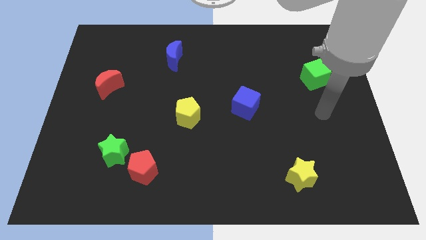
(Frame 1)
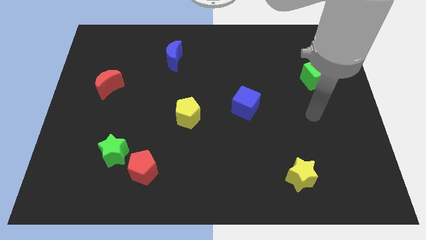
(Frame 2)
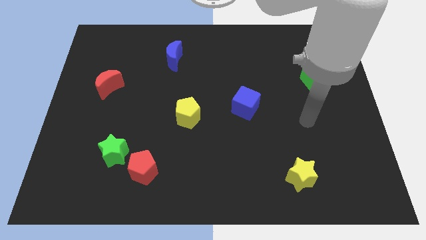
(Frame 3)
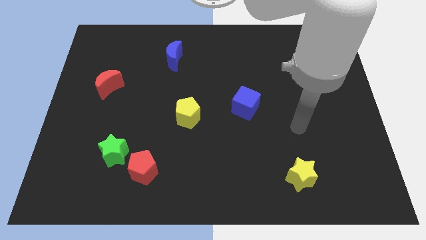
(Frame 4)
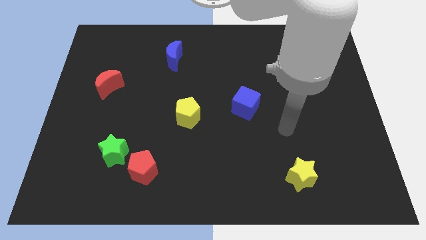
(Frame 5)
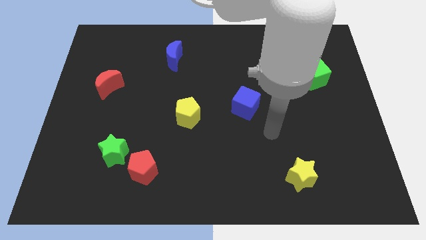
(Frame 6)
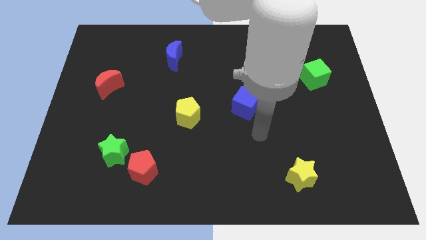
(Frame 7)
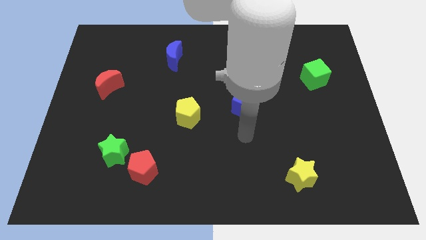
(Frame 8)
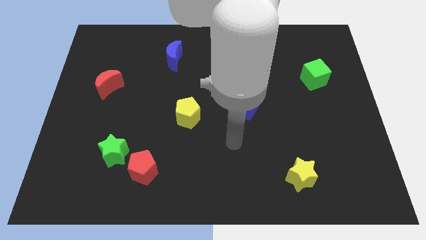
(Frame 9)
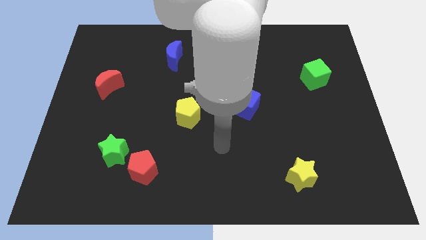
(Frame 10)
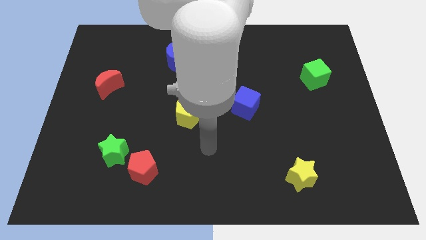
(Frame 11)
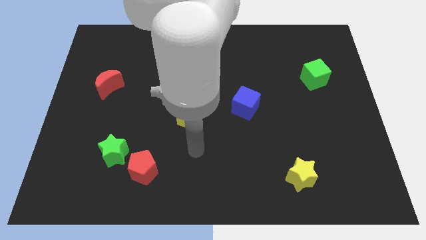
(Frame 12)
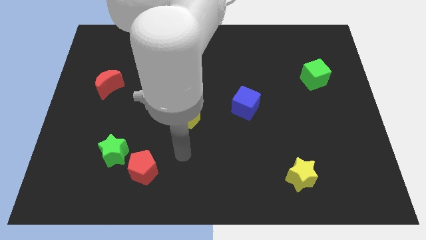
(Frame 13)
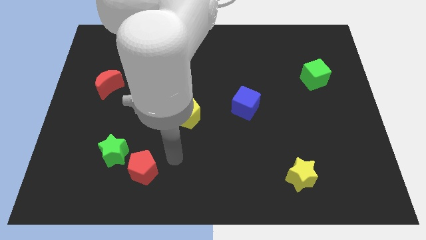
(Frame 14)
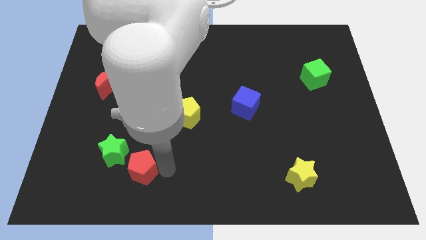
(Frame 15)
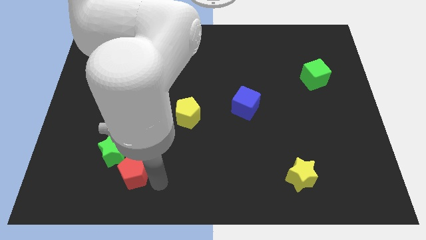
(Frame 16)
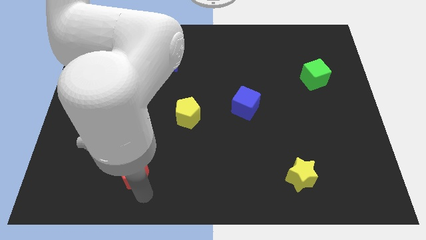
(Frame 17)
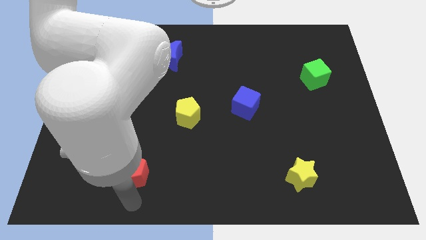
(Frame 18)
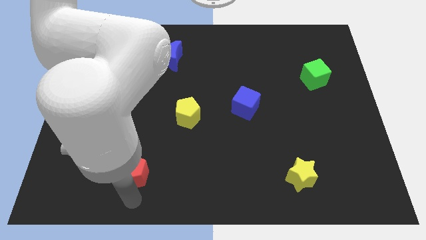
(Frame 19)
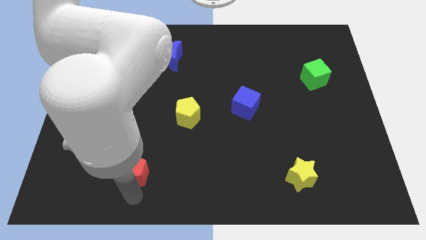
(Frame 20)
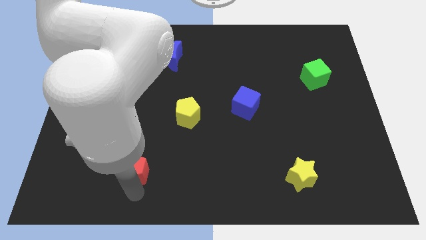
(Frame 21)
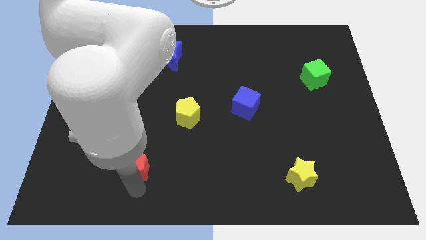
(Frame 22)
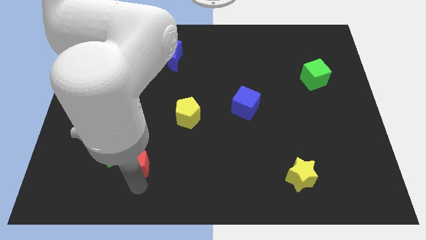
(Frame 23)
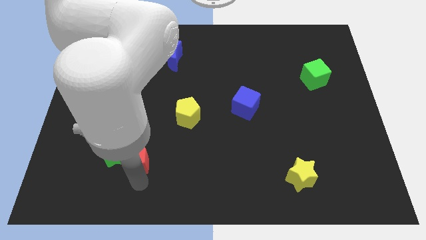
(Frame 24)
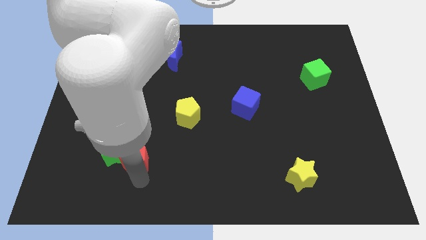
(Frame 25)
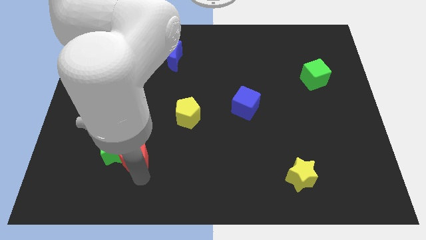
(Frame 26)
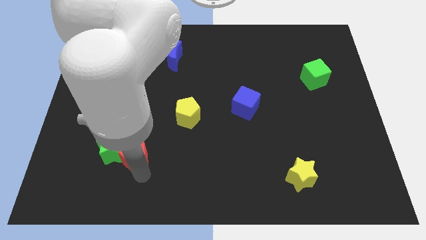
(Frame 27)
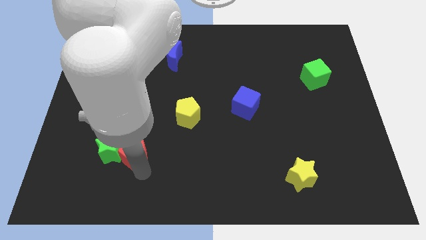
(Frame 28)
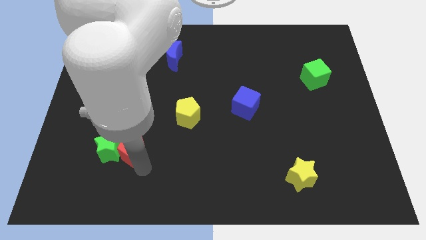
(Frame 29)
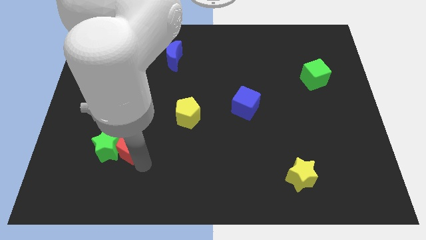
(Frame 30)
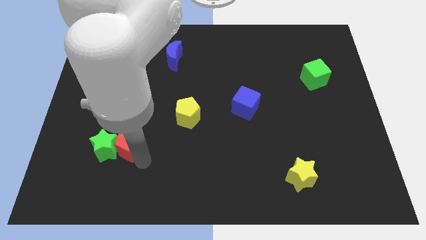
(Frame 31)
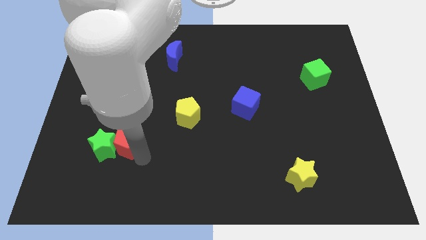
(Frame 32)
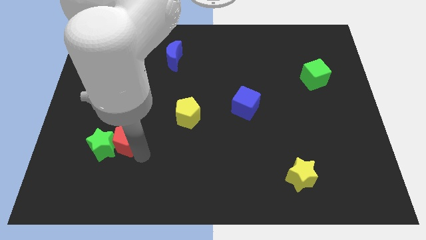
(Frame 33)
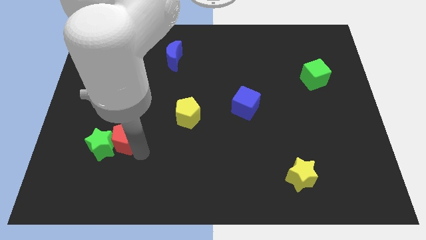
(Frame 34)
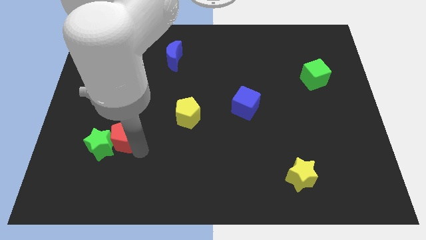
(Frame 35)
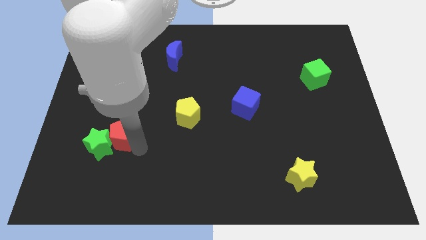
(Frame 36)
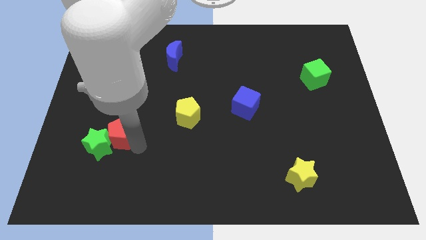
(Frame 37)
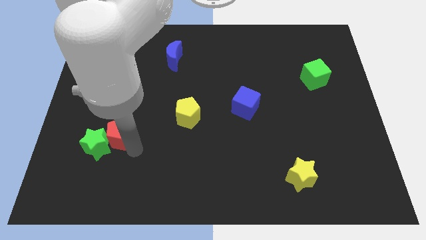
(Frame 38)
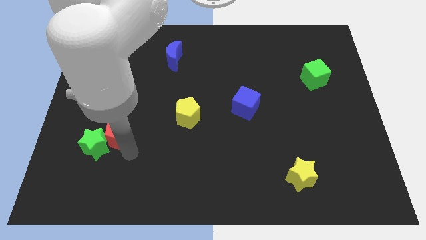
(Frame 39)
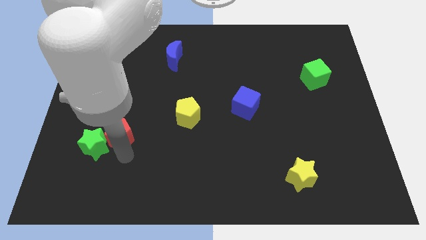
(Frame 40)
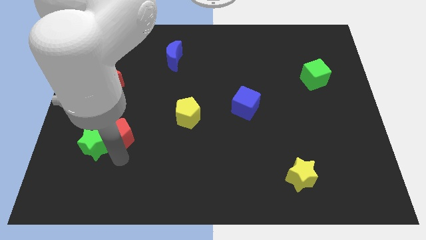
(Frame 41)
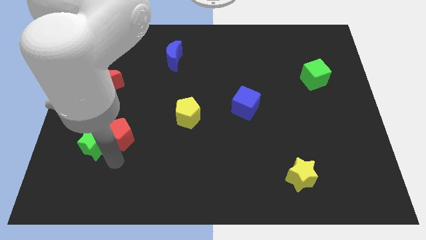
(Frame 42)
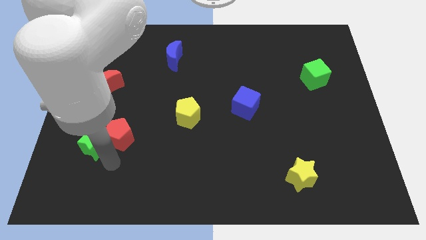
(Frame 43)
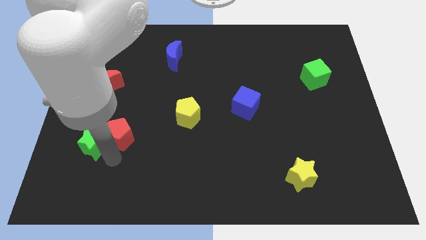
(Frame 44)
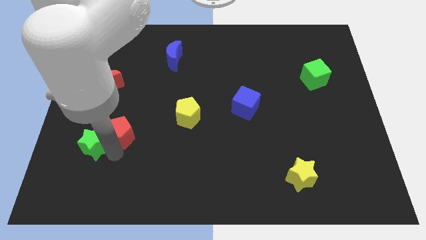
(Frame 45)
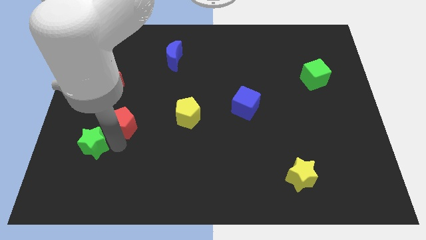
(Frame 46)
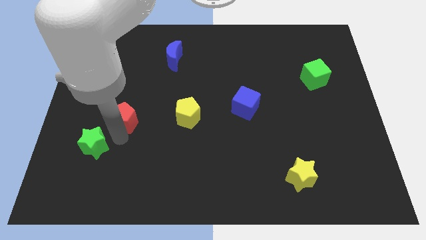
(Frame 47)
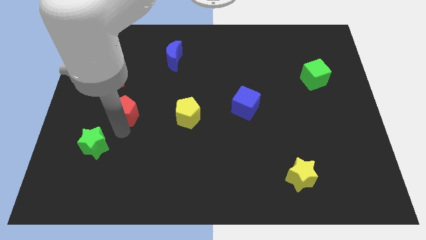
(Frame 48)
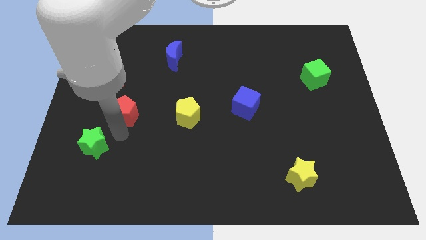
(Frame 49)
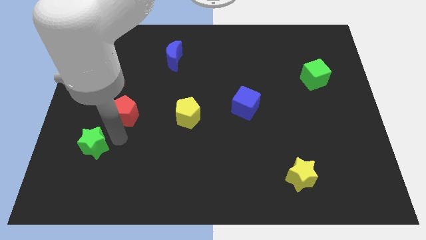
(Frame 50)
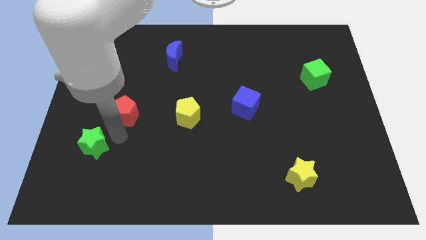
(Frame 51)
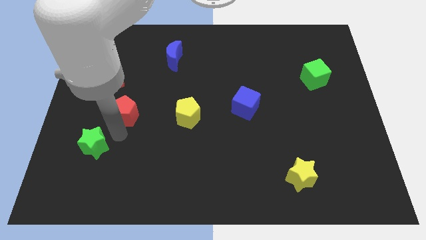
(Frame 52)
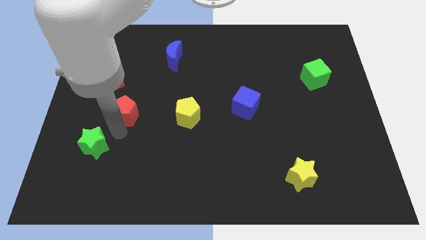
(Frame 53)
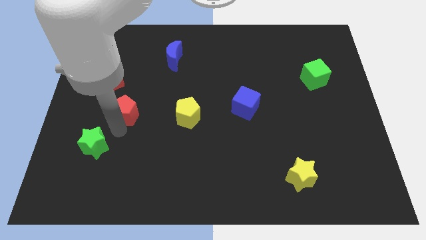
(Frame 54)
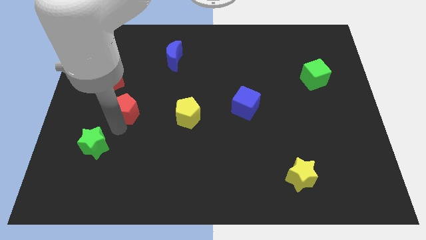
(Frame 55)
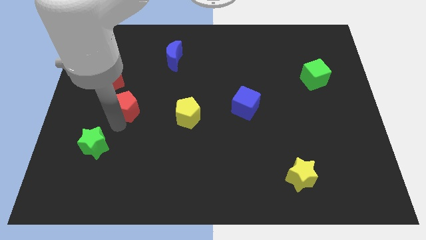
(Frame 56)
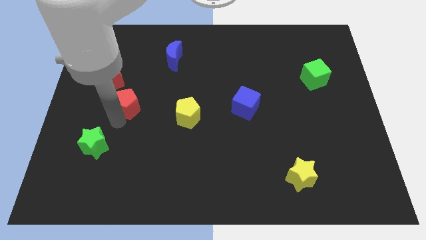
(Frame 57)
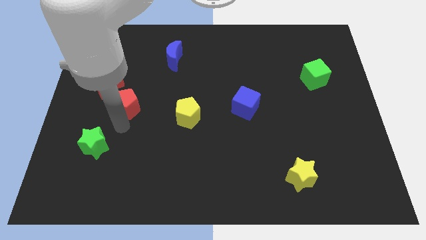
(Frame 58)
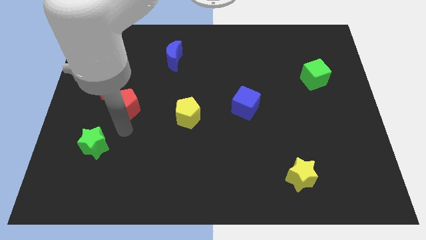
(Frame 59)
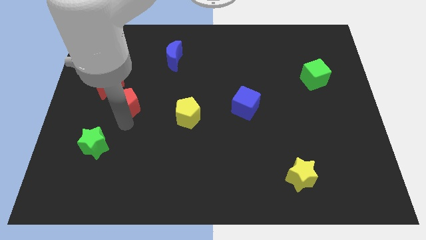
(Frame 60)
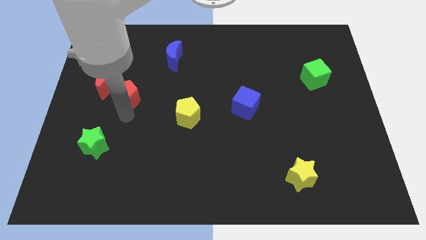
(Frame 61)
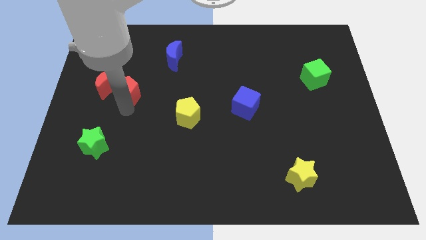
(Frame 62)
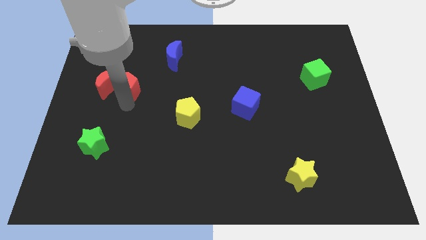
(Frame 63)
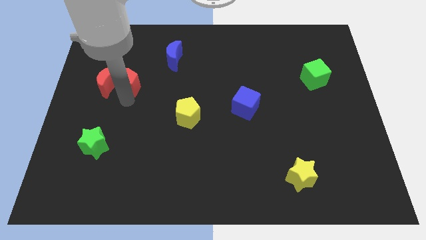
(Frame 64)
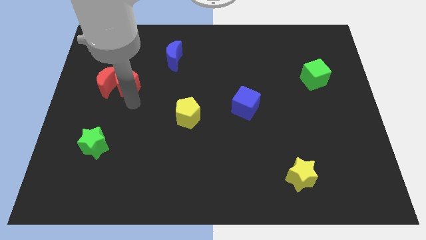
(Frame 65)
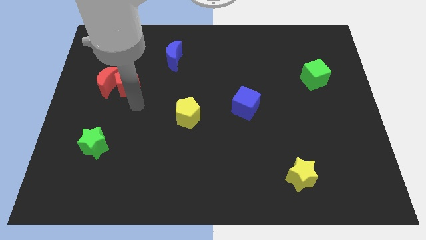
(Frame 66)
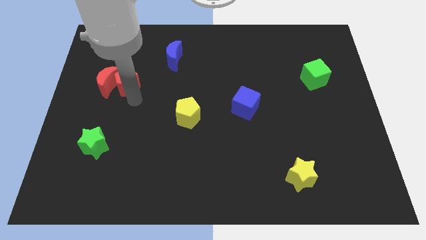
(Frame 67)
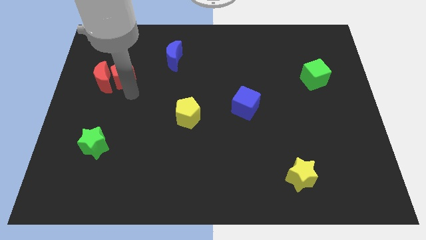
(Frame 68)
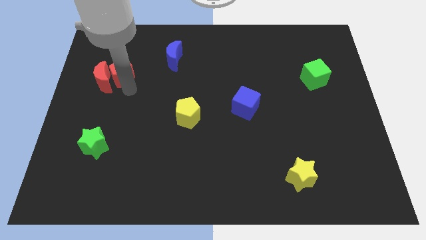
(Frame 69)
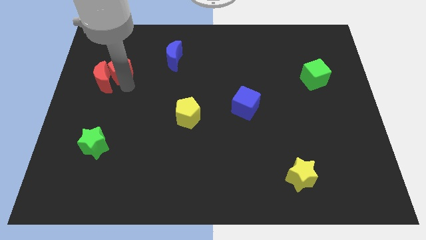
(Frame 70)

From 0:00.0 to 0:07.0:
push the red pentagon to the top of the red moon

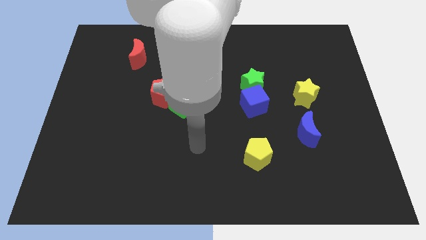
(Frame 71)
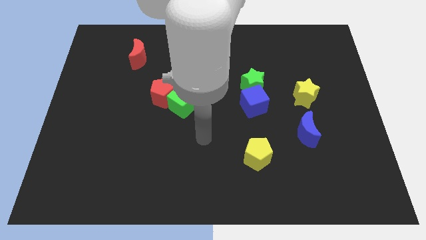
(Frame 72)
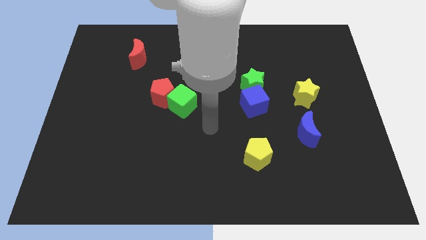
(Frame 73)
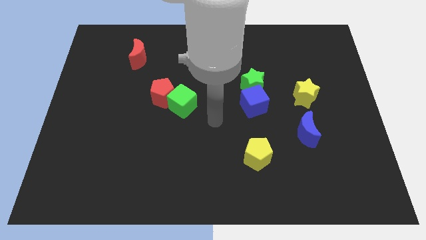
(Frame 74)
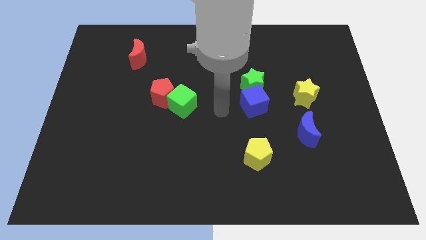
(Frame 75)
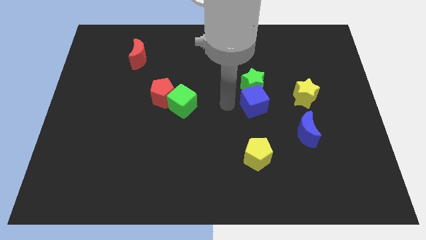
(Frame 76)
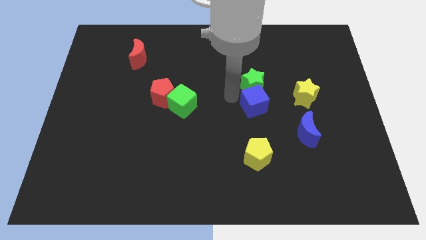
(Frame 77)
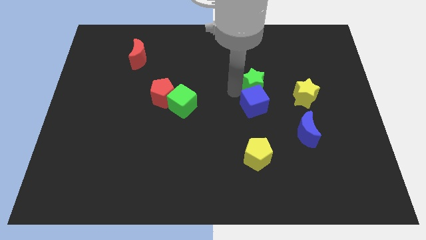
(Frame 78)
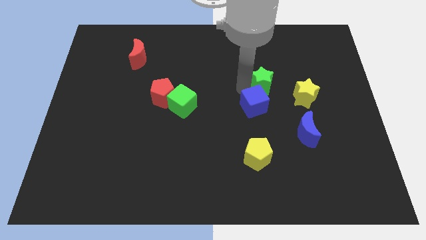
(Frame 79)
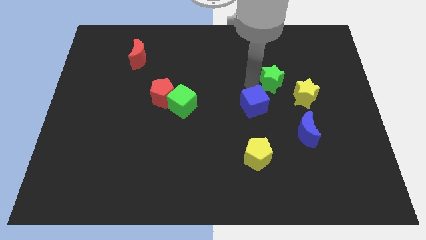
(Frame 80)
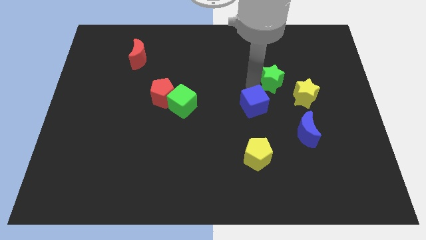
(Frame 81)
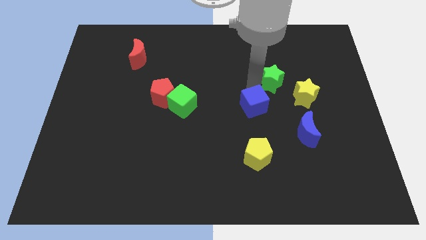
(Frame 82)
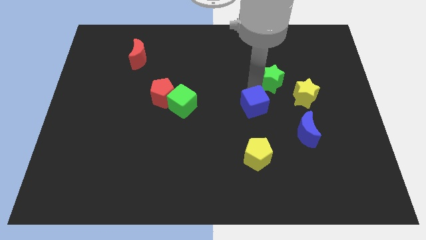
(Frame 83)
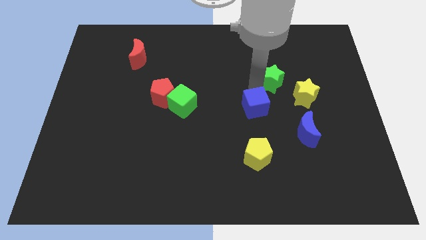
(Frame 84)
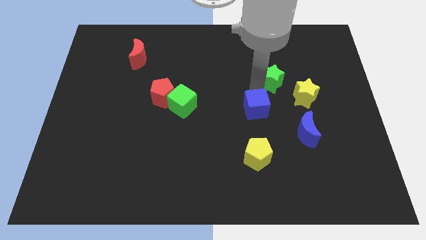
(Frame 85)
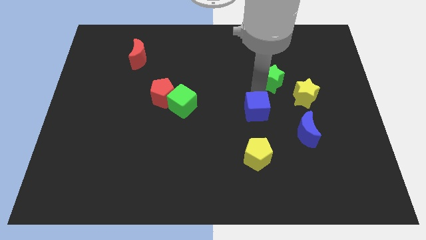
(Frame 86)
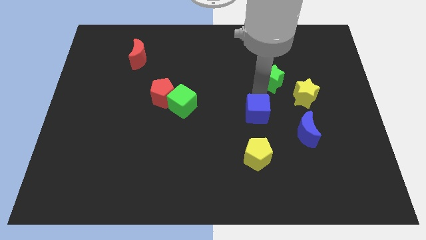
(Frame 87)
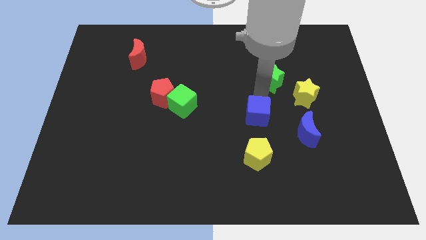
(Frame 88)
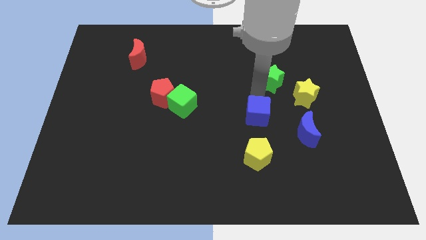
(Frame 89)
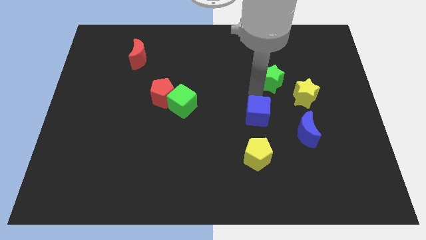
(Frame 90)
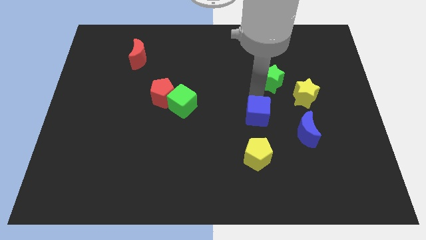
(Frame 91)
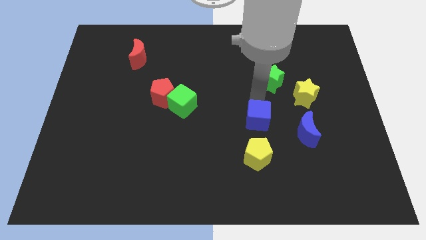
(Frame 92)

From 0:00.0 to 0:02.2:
put the blue cube left of the blue moon
